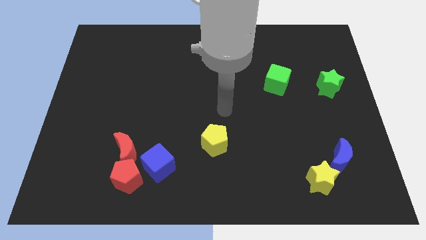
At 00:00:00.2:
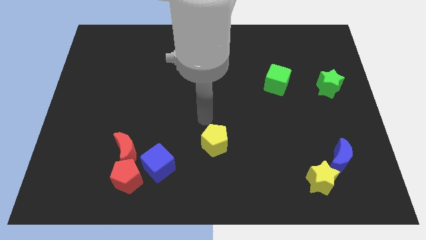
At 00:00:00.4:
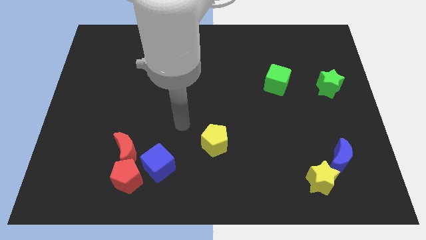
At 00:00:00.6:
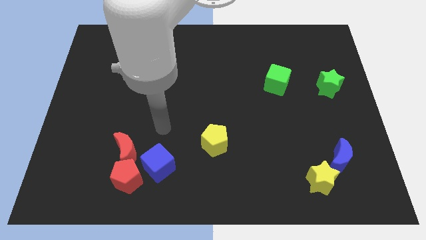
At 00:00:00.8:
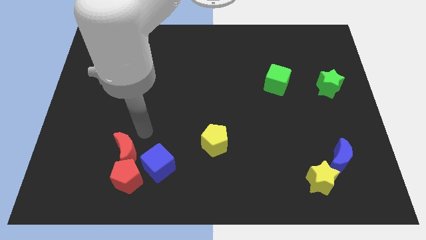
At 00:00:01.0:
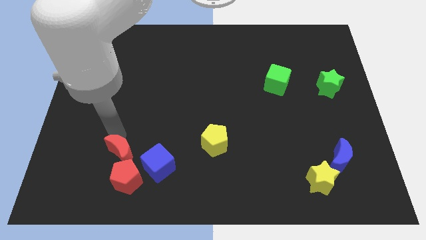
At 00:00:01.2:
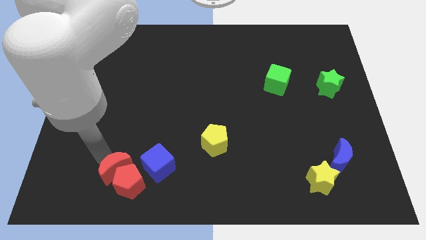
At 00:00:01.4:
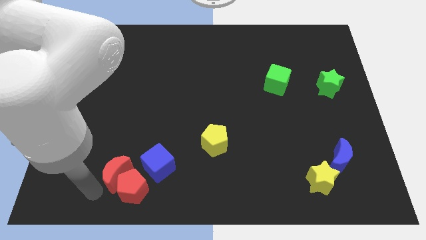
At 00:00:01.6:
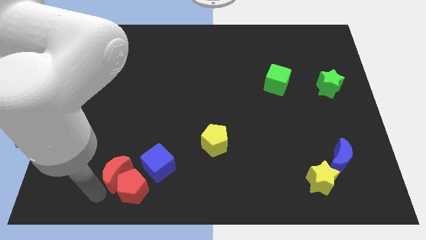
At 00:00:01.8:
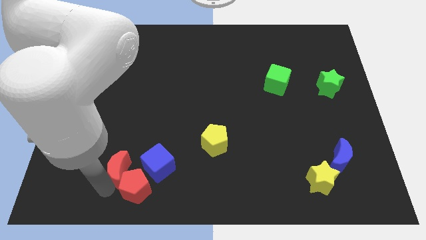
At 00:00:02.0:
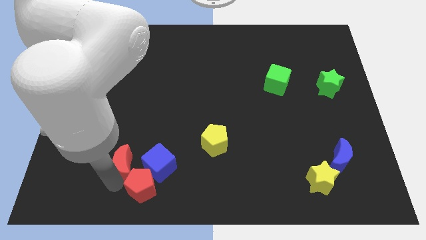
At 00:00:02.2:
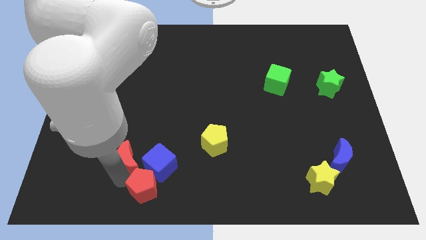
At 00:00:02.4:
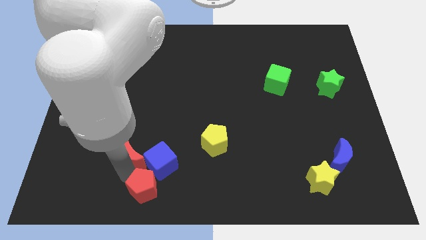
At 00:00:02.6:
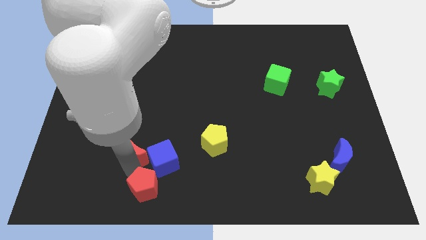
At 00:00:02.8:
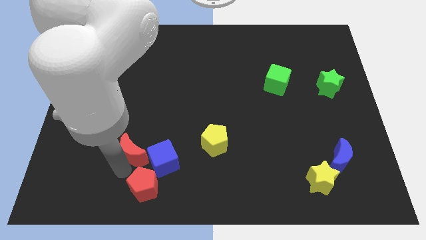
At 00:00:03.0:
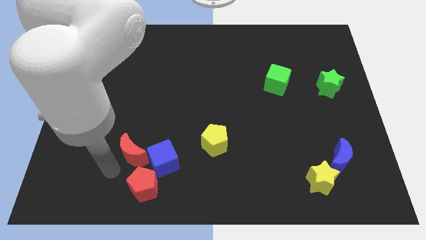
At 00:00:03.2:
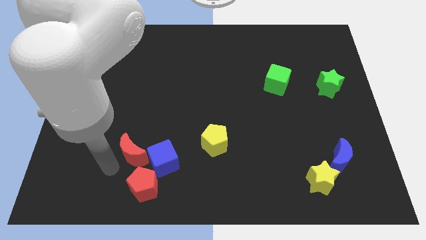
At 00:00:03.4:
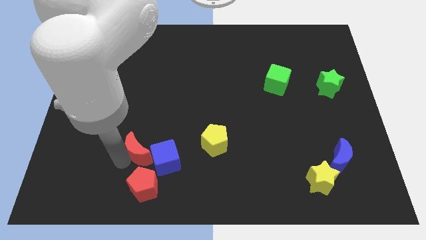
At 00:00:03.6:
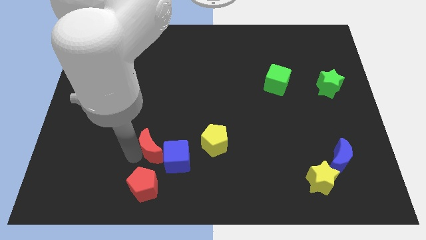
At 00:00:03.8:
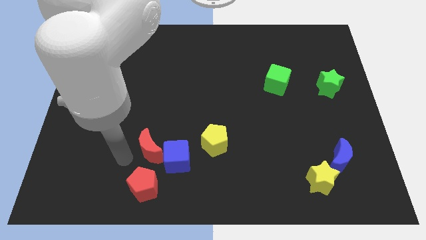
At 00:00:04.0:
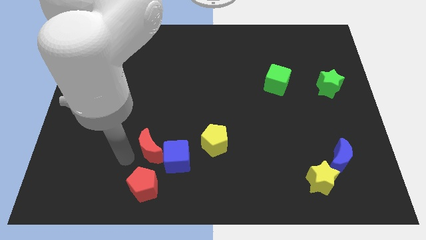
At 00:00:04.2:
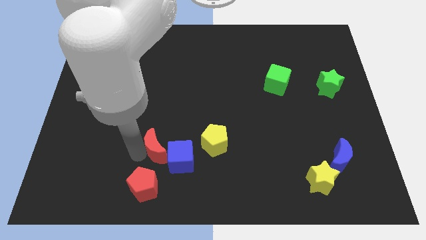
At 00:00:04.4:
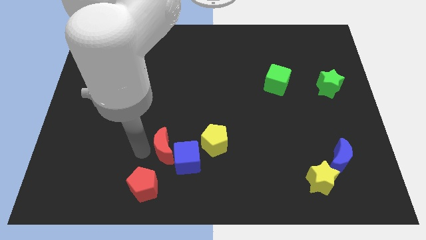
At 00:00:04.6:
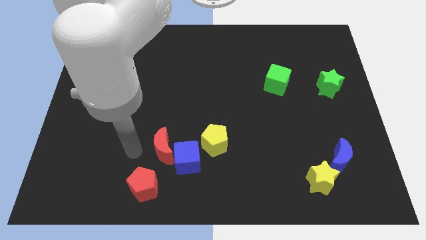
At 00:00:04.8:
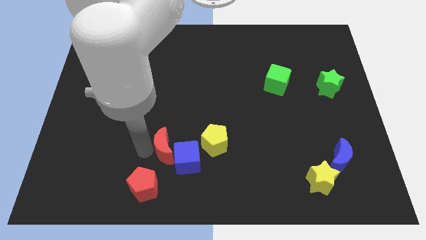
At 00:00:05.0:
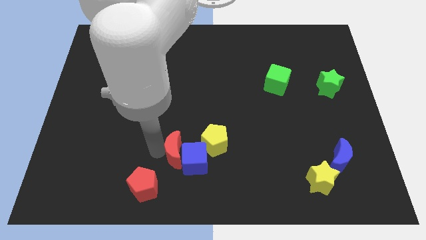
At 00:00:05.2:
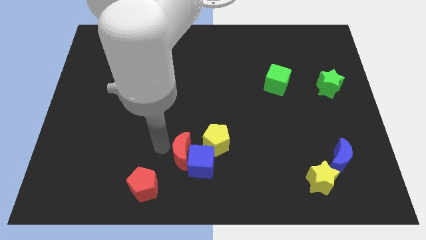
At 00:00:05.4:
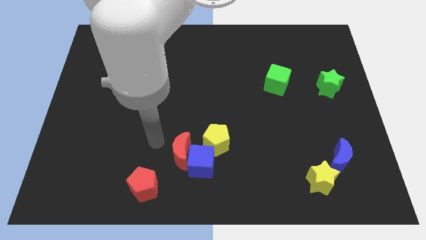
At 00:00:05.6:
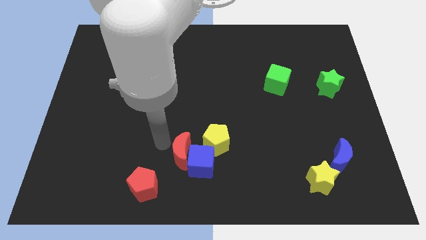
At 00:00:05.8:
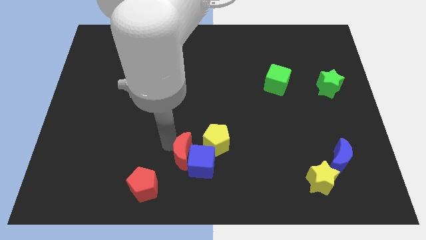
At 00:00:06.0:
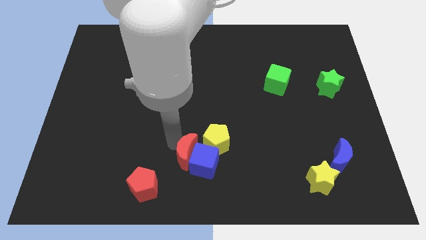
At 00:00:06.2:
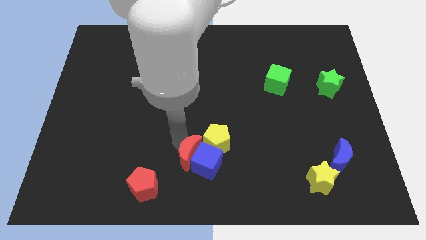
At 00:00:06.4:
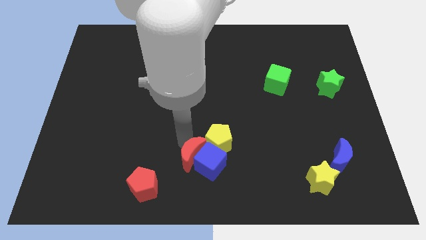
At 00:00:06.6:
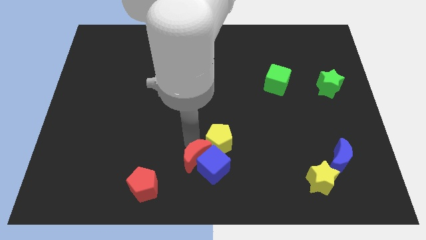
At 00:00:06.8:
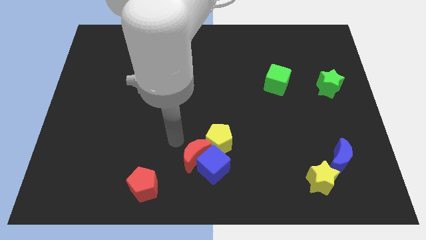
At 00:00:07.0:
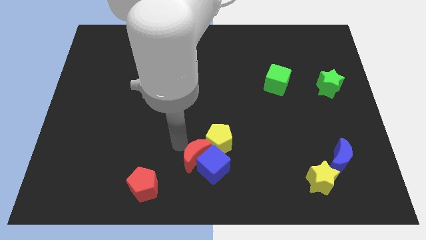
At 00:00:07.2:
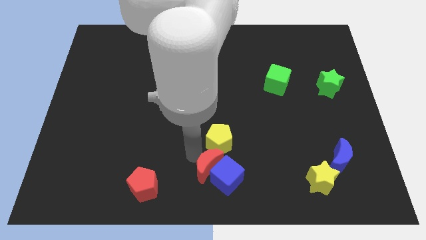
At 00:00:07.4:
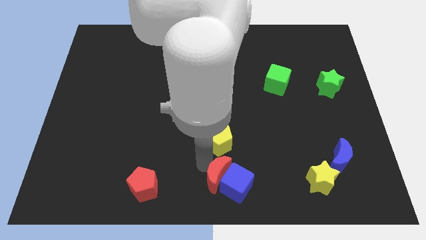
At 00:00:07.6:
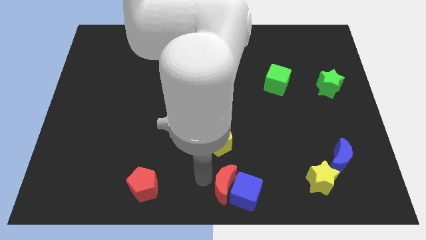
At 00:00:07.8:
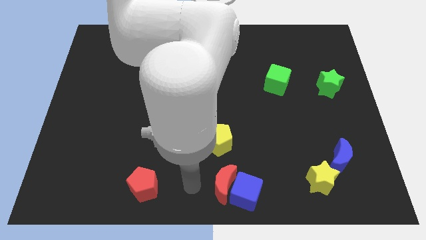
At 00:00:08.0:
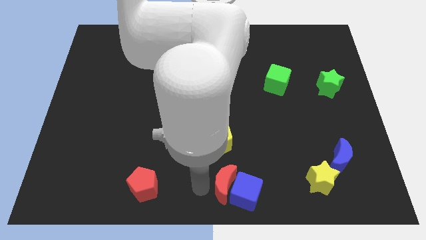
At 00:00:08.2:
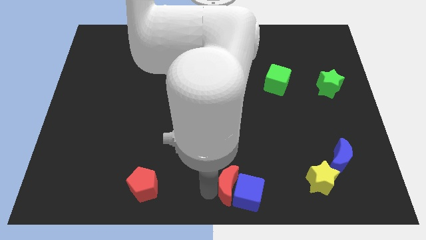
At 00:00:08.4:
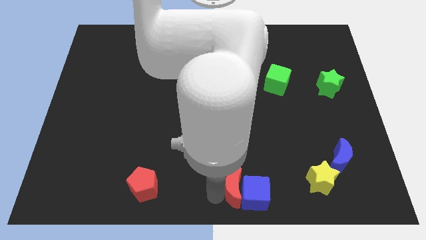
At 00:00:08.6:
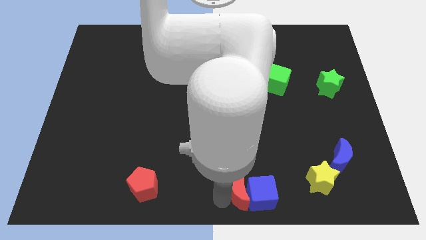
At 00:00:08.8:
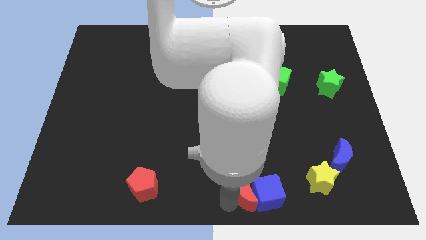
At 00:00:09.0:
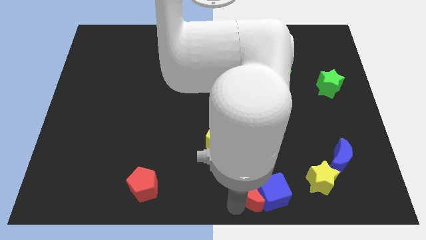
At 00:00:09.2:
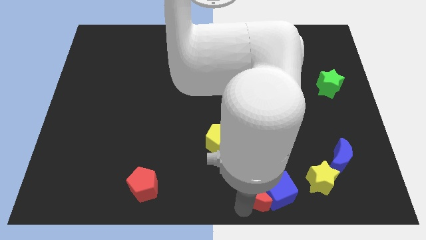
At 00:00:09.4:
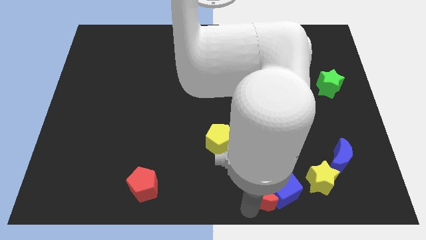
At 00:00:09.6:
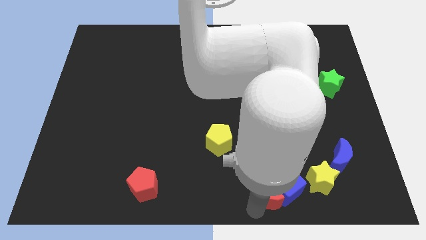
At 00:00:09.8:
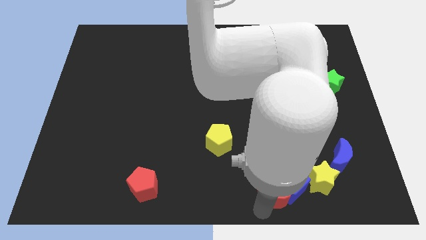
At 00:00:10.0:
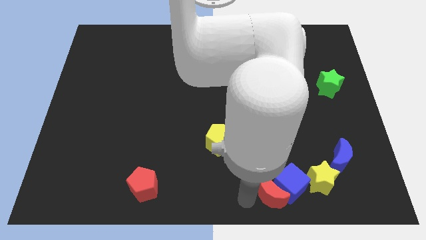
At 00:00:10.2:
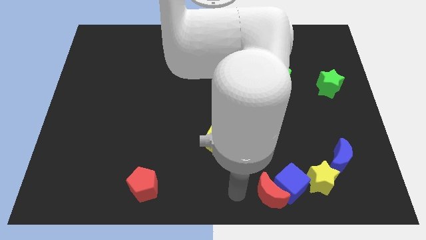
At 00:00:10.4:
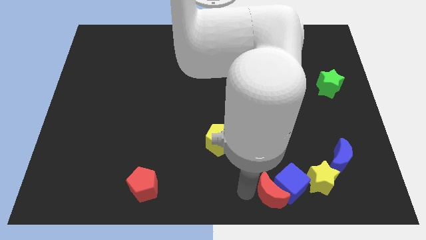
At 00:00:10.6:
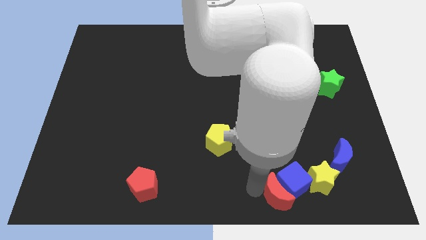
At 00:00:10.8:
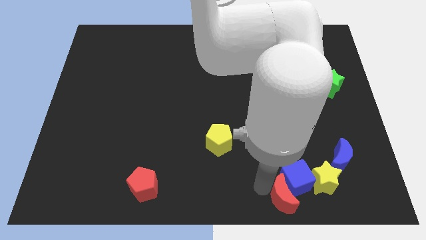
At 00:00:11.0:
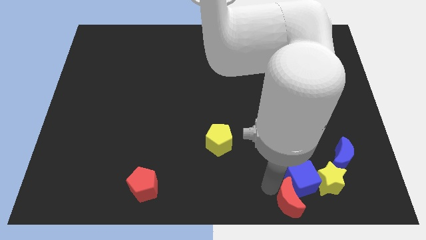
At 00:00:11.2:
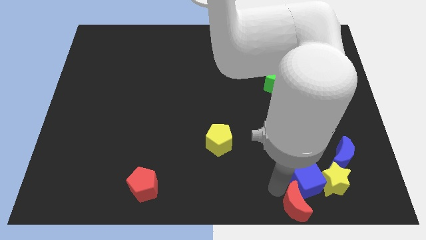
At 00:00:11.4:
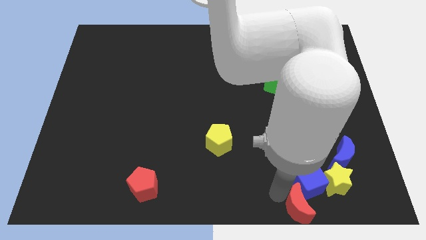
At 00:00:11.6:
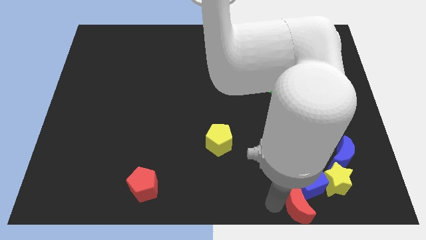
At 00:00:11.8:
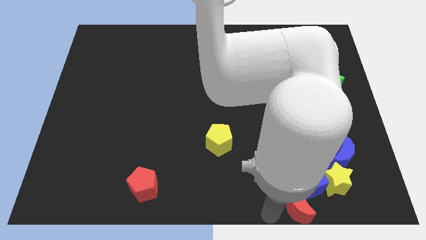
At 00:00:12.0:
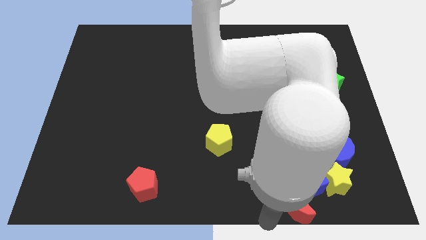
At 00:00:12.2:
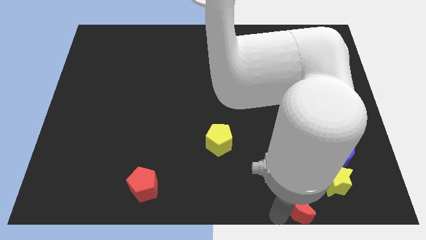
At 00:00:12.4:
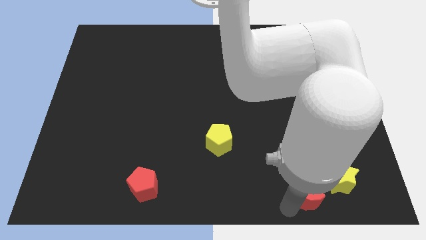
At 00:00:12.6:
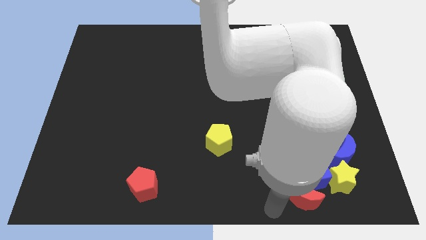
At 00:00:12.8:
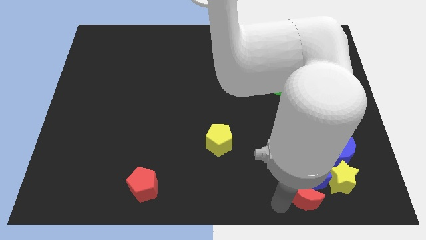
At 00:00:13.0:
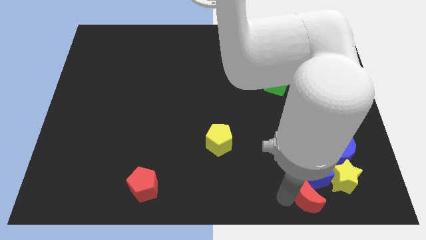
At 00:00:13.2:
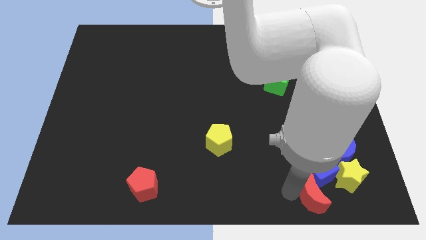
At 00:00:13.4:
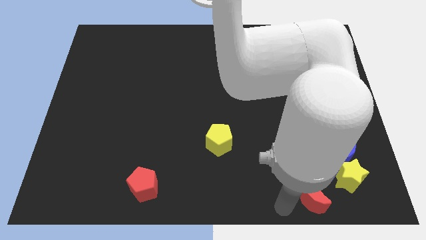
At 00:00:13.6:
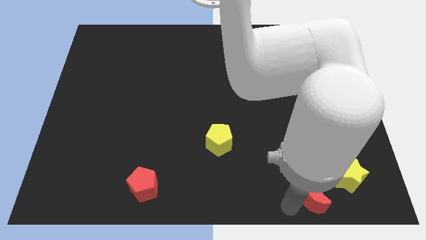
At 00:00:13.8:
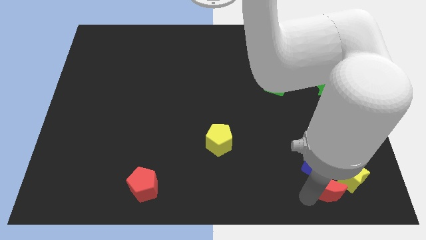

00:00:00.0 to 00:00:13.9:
put the red moon to the yellow star

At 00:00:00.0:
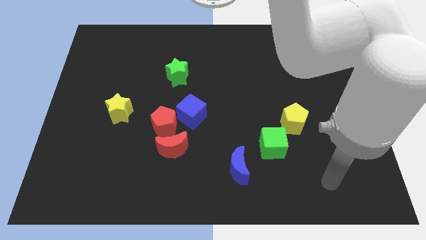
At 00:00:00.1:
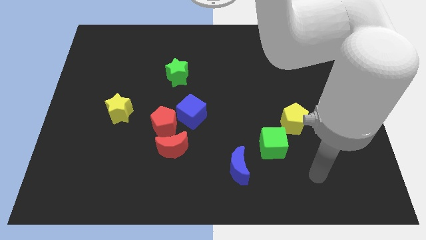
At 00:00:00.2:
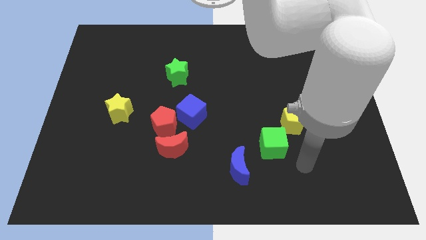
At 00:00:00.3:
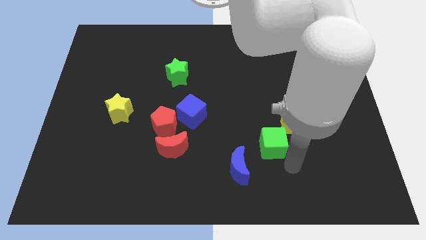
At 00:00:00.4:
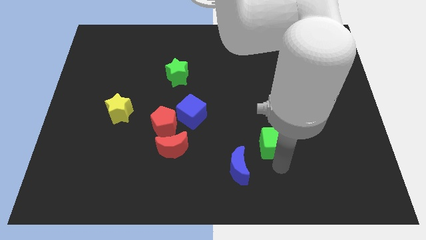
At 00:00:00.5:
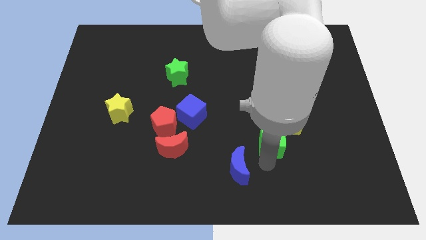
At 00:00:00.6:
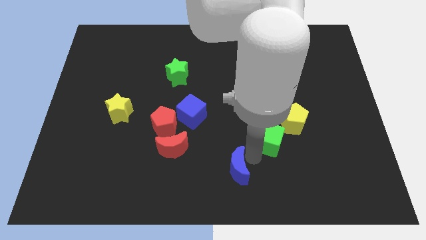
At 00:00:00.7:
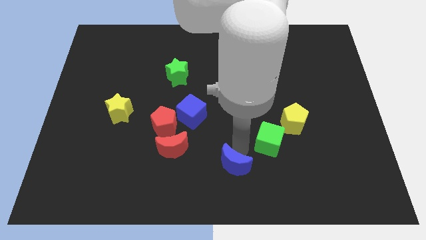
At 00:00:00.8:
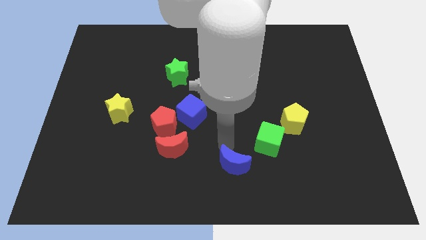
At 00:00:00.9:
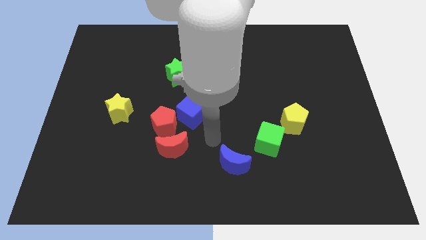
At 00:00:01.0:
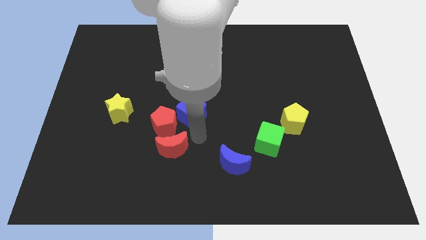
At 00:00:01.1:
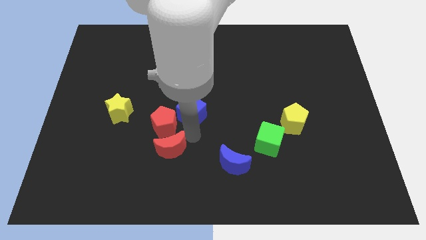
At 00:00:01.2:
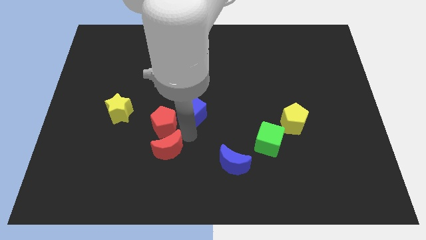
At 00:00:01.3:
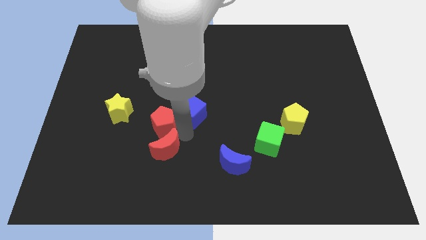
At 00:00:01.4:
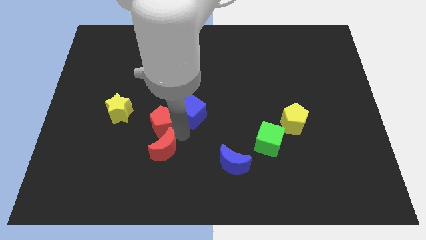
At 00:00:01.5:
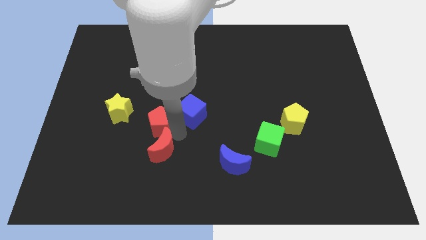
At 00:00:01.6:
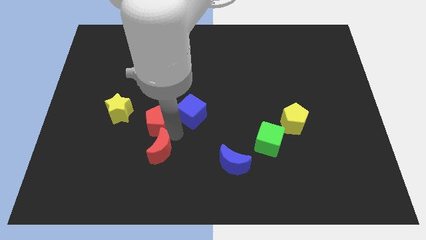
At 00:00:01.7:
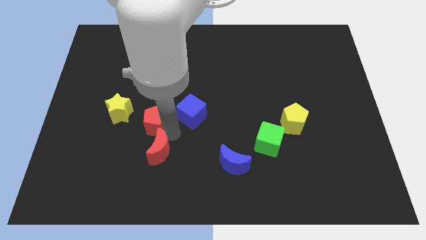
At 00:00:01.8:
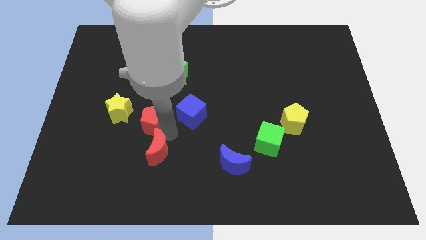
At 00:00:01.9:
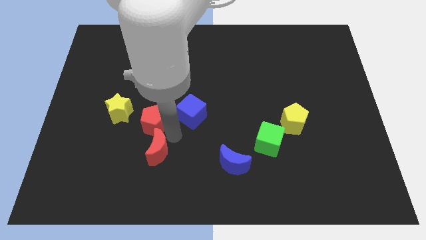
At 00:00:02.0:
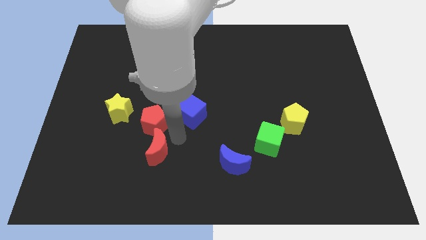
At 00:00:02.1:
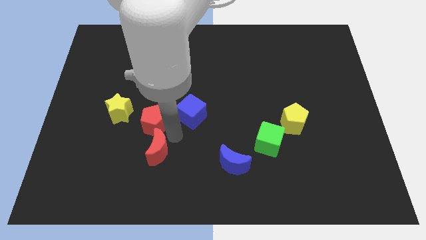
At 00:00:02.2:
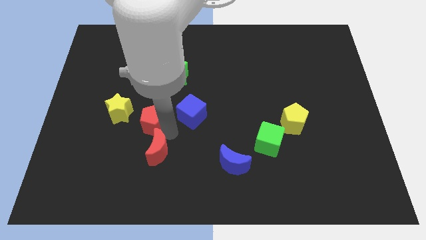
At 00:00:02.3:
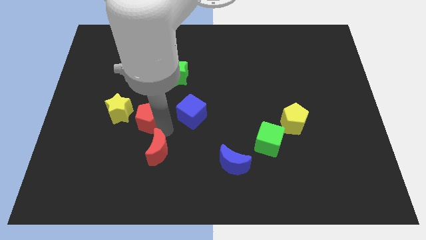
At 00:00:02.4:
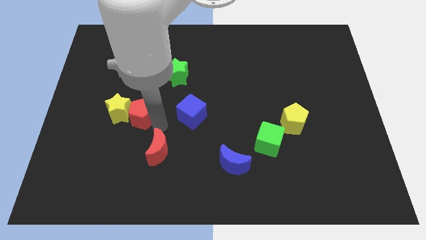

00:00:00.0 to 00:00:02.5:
move the red pentagon towards the yellow star
